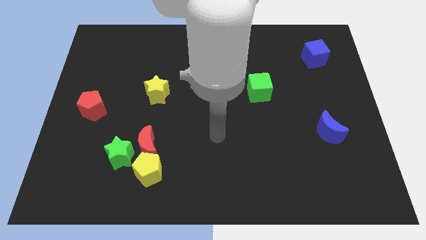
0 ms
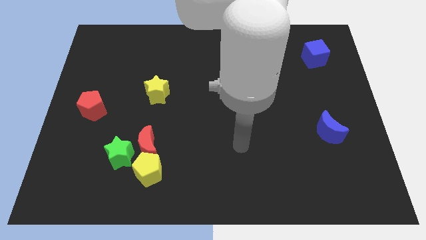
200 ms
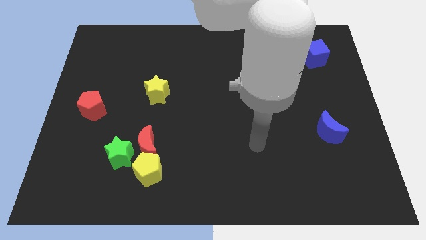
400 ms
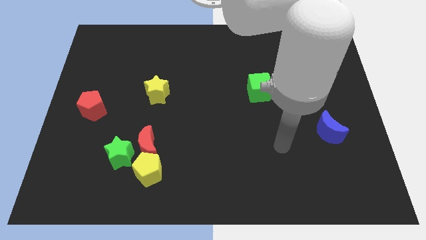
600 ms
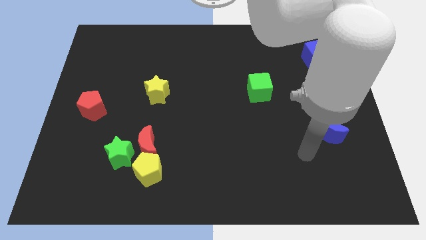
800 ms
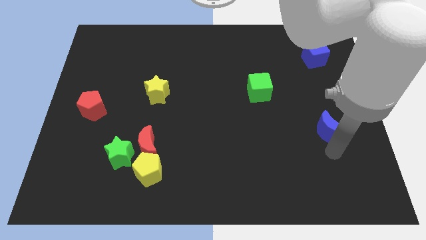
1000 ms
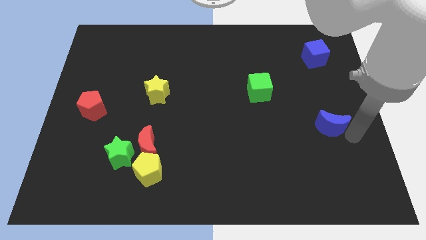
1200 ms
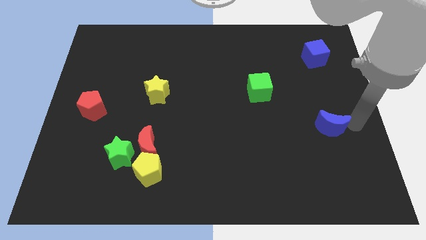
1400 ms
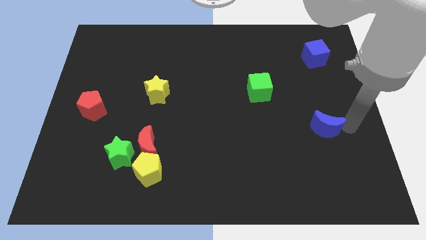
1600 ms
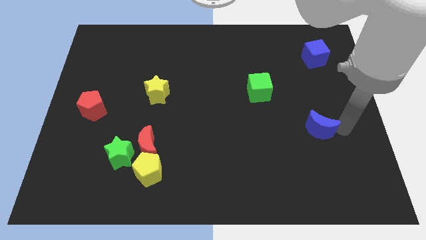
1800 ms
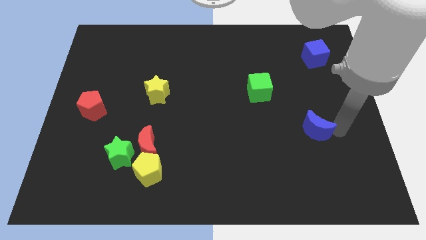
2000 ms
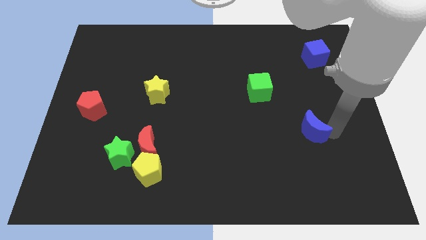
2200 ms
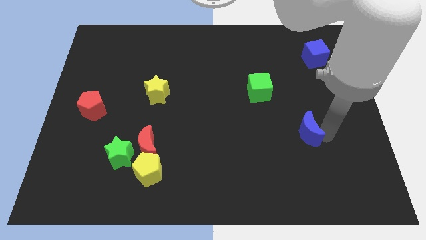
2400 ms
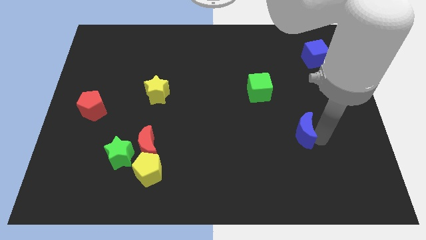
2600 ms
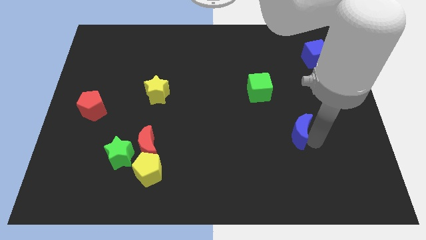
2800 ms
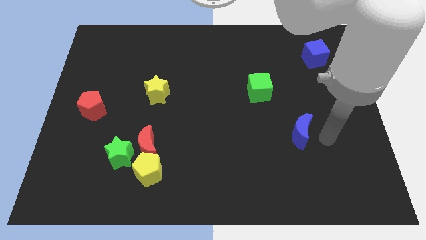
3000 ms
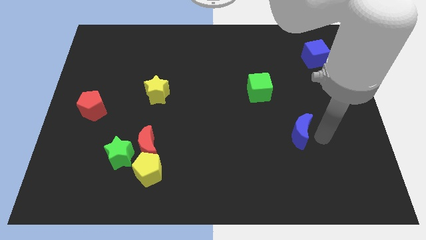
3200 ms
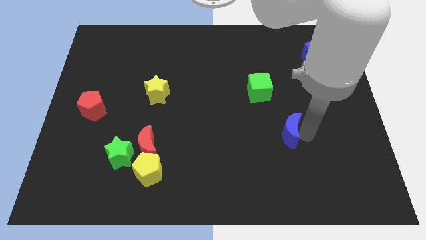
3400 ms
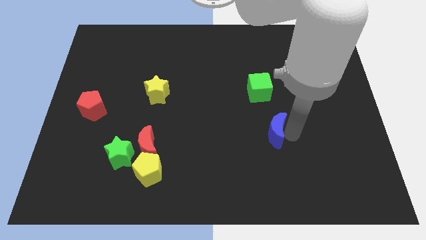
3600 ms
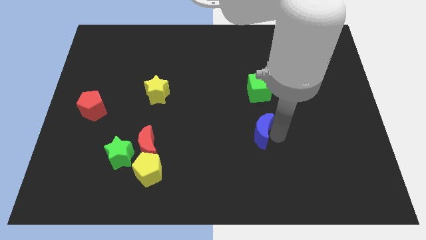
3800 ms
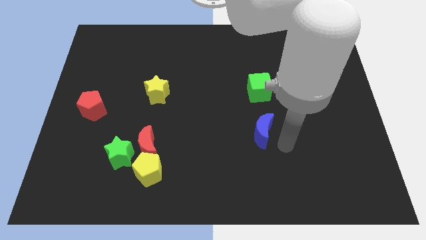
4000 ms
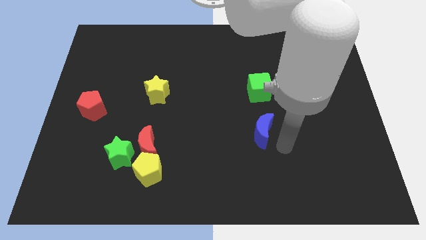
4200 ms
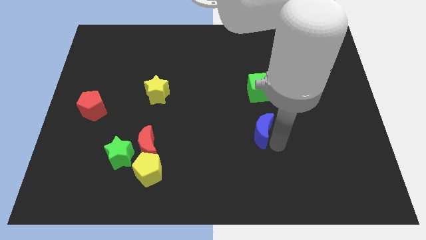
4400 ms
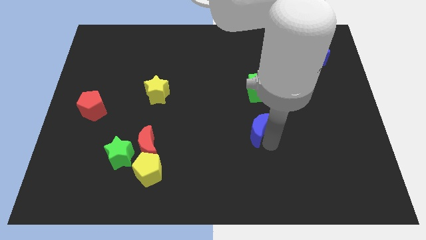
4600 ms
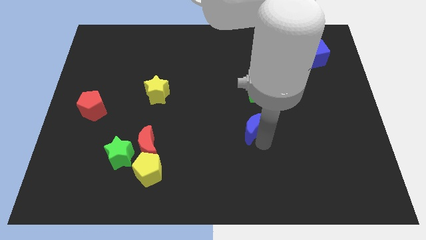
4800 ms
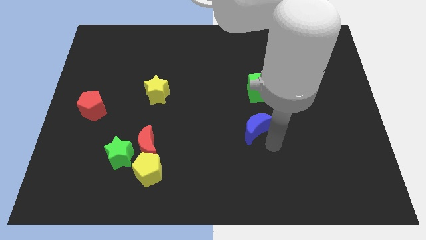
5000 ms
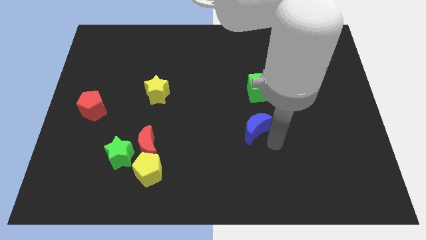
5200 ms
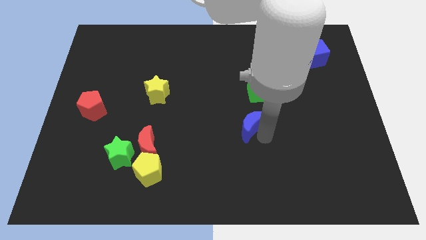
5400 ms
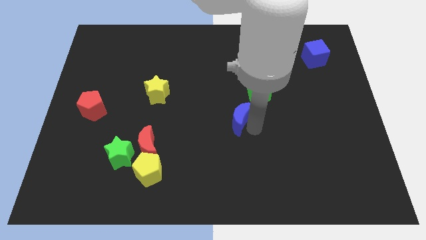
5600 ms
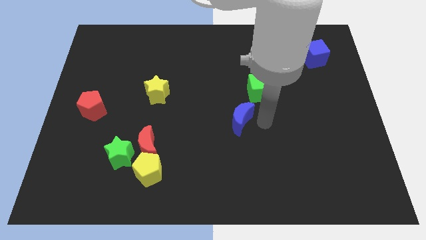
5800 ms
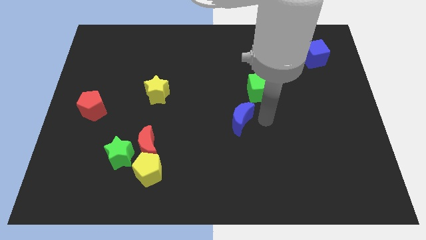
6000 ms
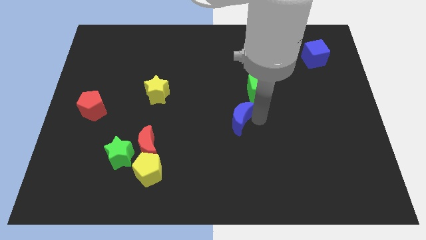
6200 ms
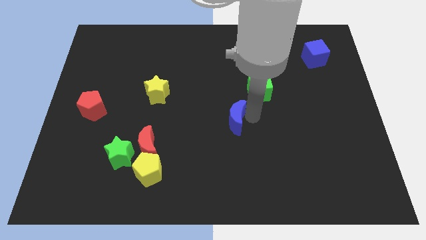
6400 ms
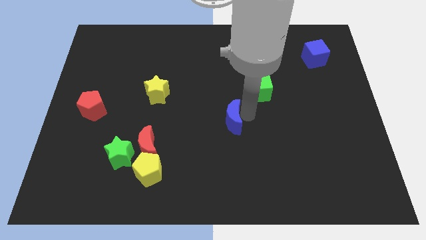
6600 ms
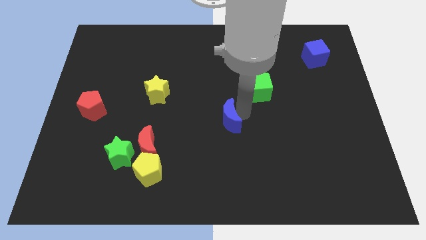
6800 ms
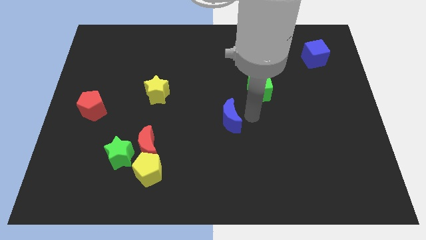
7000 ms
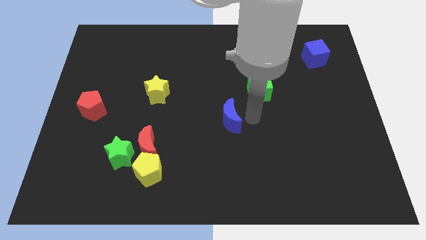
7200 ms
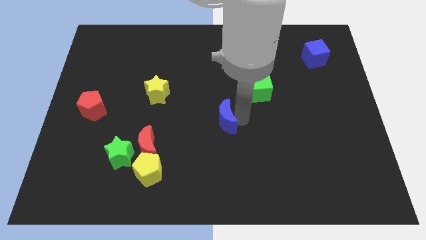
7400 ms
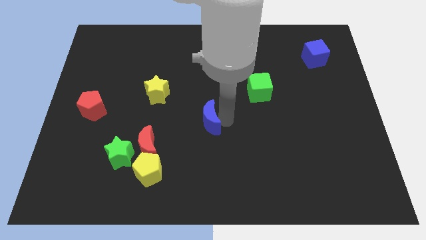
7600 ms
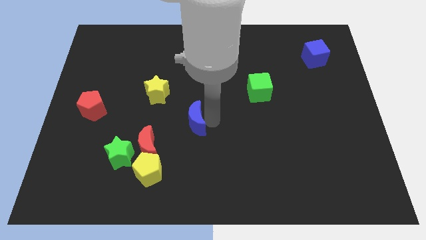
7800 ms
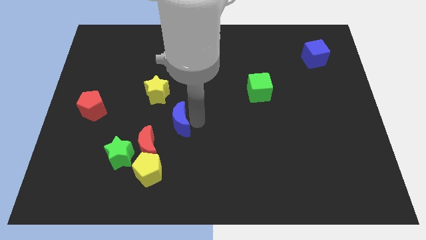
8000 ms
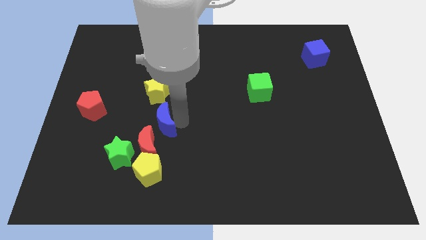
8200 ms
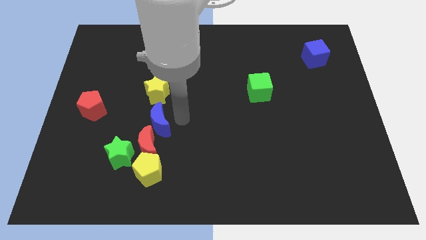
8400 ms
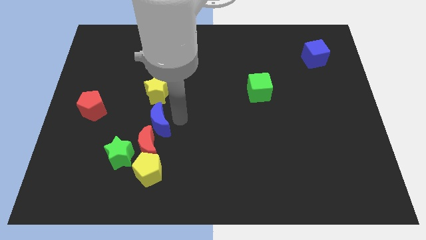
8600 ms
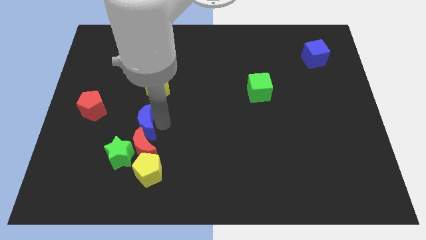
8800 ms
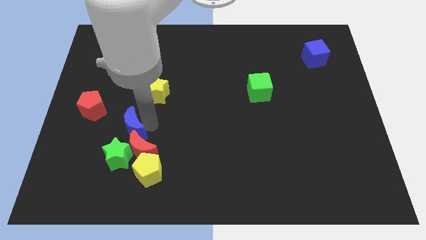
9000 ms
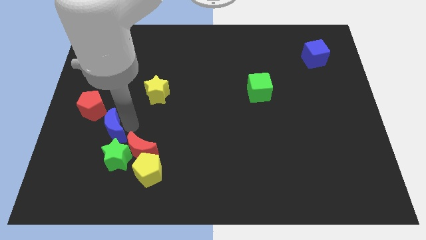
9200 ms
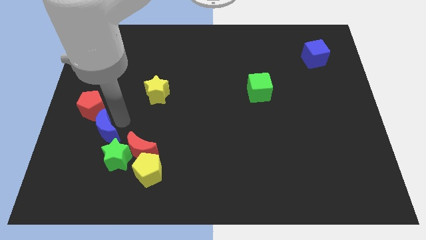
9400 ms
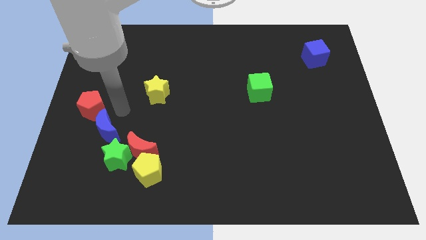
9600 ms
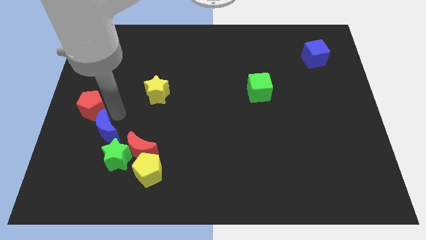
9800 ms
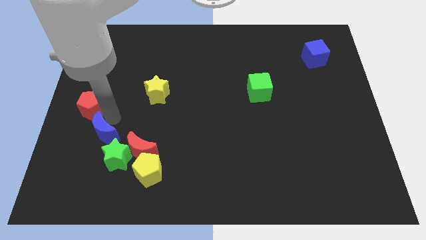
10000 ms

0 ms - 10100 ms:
push the blue moon to the left side of the red moon

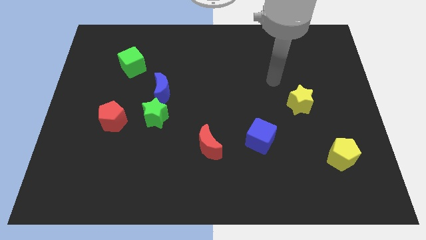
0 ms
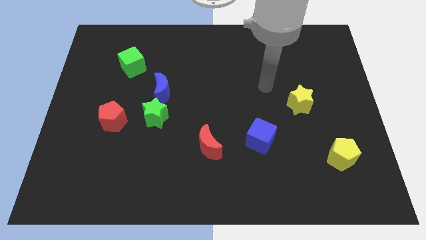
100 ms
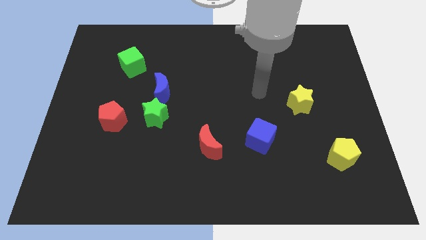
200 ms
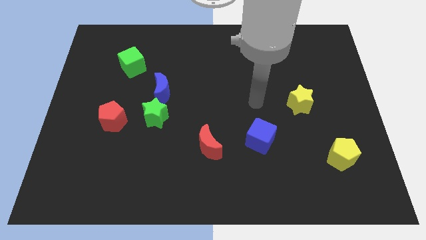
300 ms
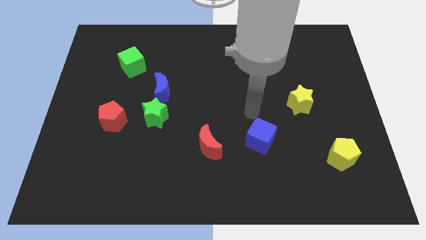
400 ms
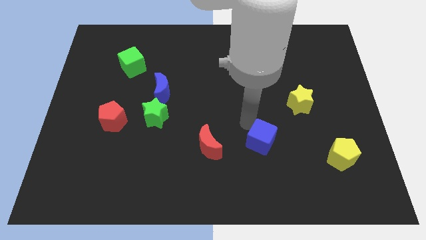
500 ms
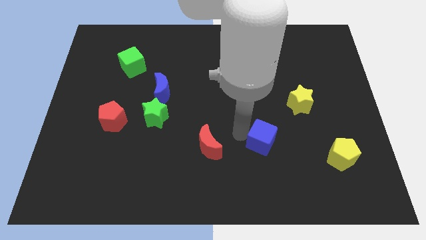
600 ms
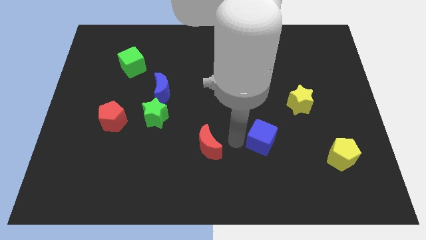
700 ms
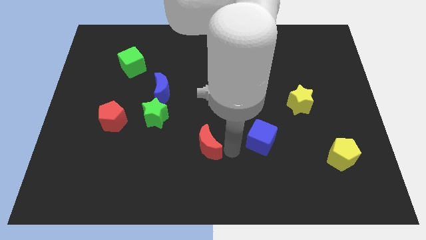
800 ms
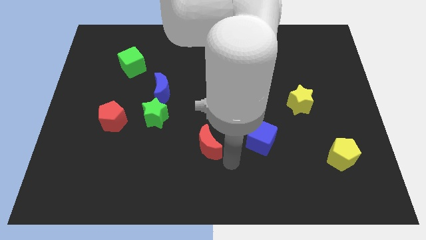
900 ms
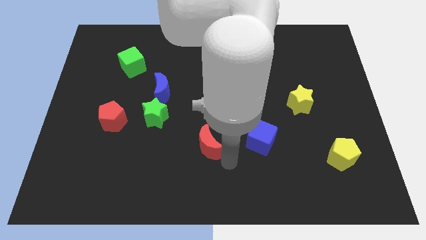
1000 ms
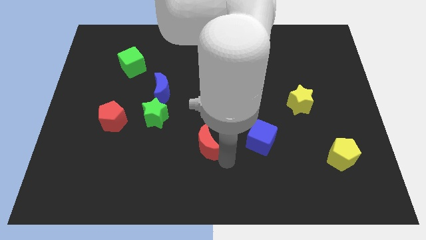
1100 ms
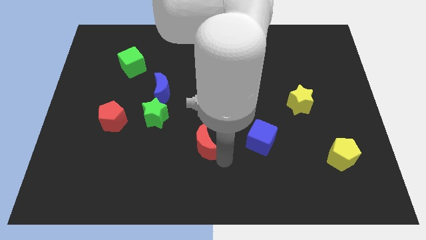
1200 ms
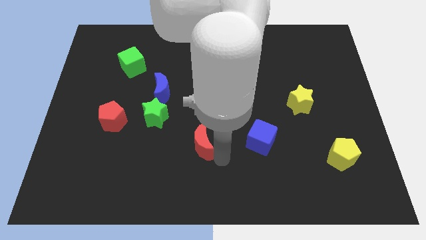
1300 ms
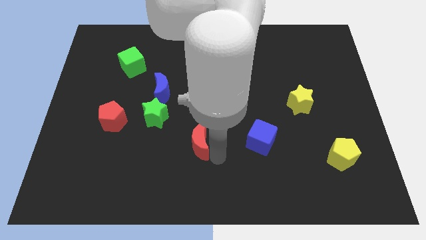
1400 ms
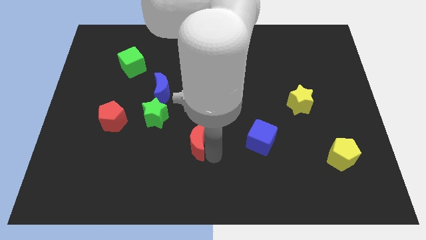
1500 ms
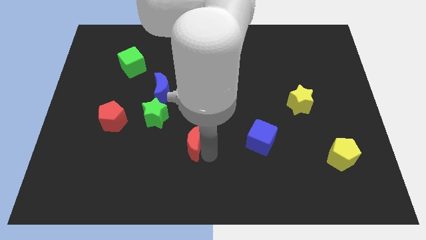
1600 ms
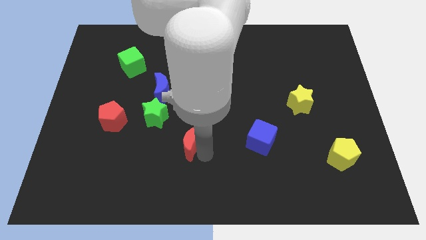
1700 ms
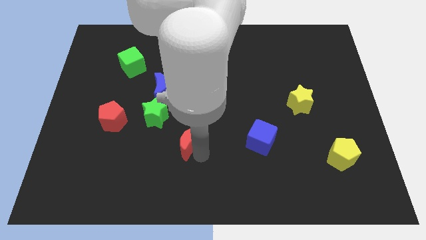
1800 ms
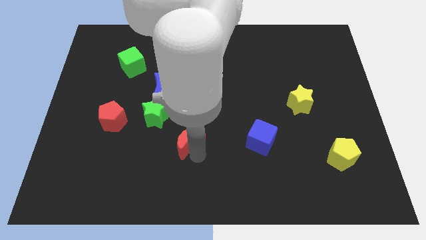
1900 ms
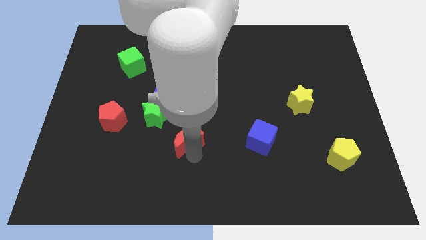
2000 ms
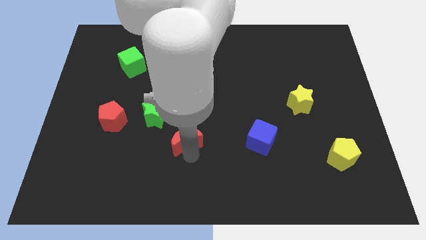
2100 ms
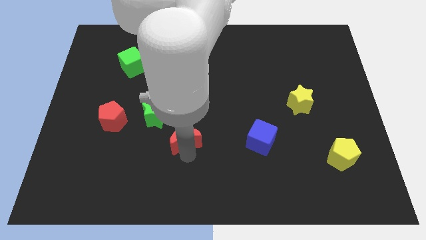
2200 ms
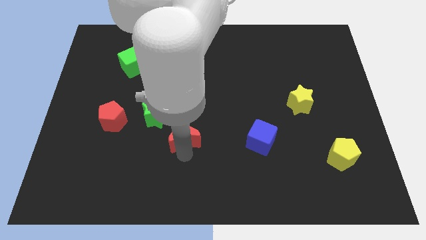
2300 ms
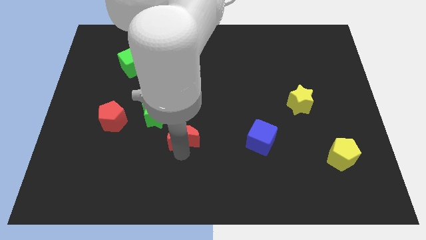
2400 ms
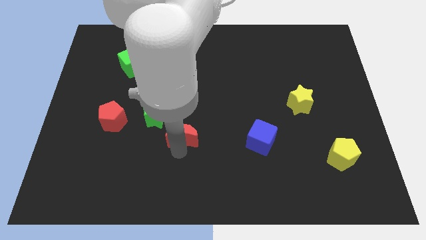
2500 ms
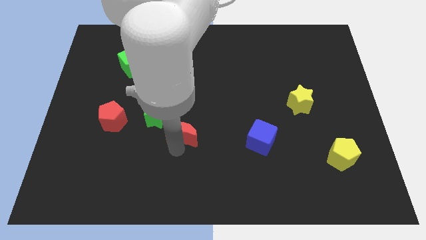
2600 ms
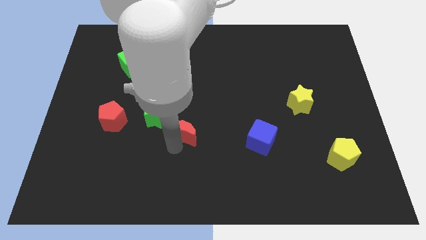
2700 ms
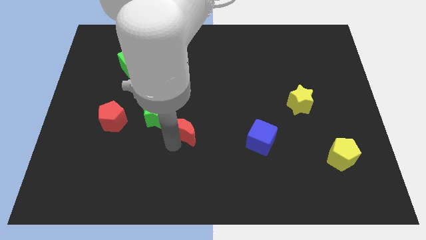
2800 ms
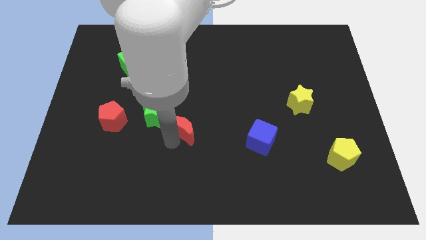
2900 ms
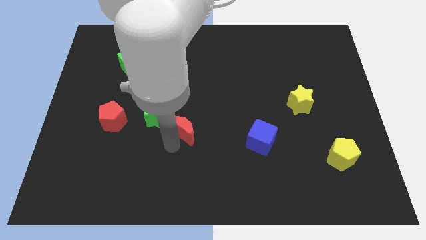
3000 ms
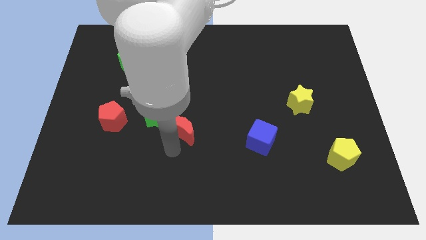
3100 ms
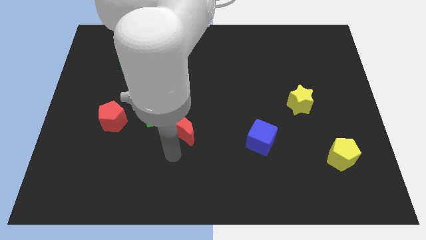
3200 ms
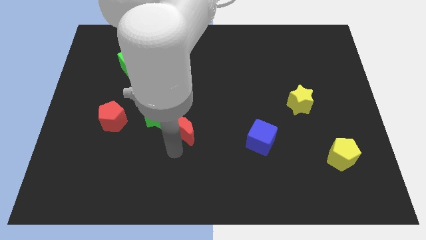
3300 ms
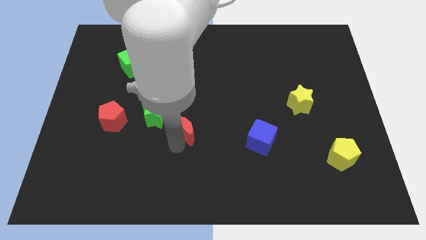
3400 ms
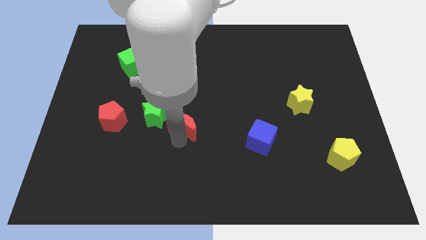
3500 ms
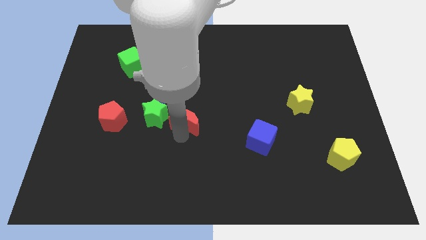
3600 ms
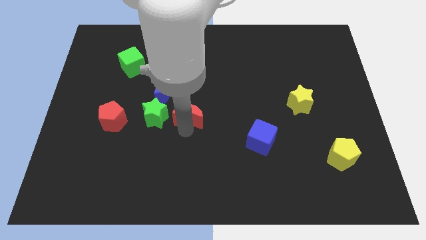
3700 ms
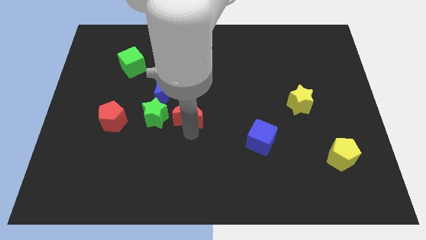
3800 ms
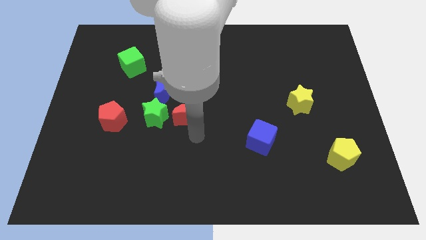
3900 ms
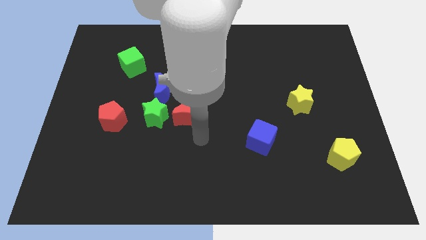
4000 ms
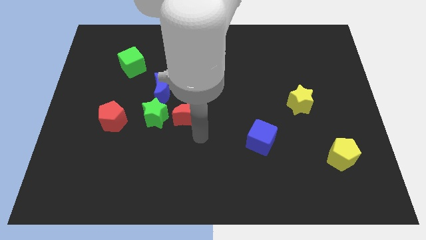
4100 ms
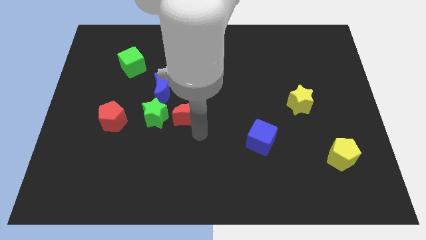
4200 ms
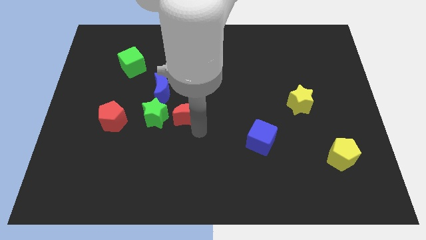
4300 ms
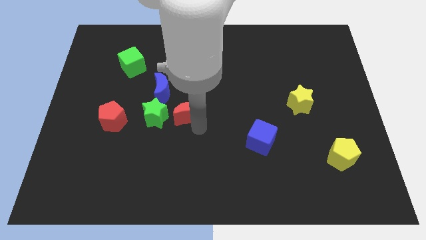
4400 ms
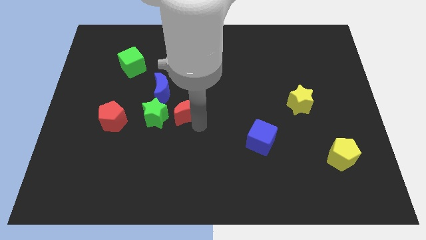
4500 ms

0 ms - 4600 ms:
slide the red moon diagonally up and to the right of the green star
